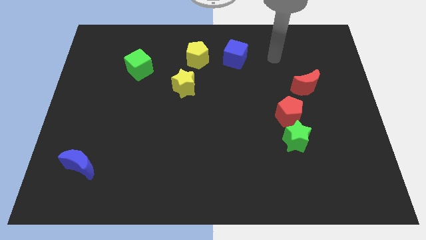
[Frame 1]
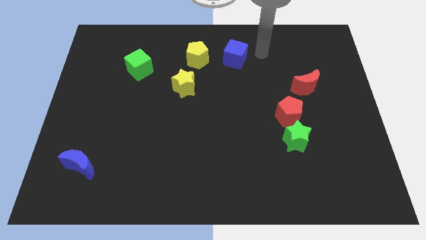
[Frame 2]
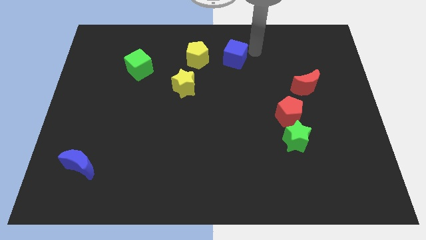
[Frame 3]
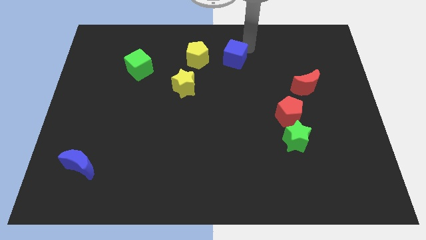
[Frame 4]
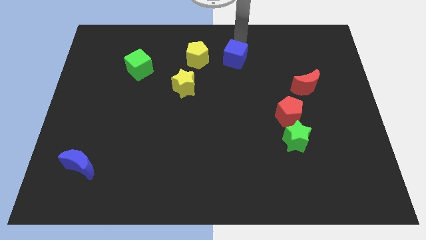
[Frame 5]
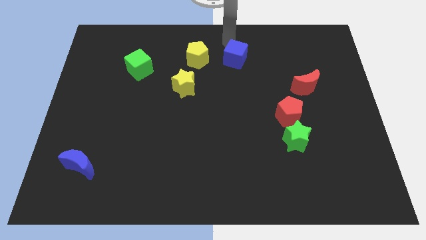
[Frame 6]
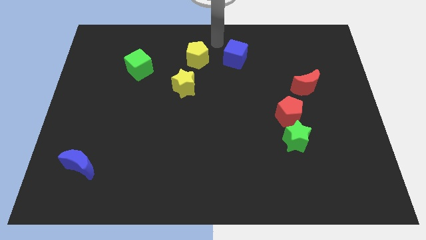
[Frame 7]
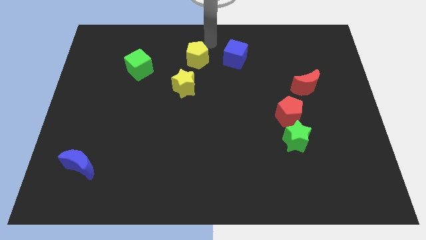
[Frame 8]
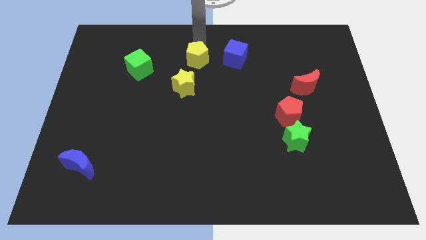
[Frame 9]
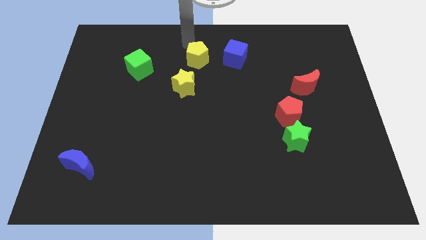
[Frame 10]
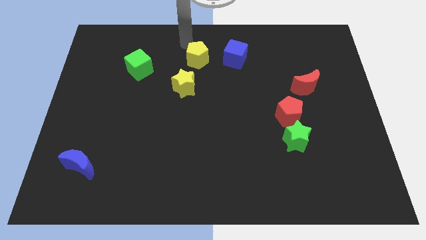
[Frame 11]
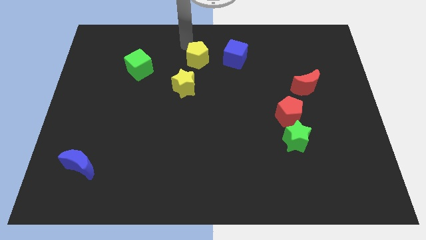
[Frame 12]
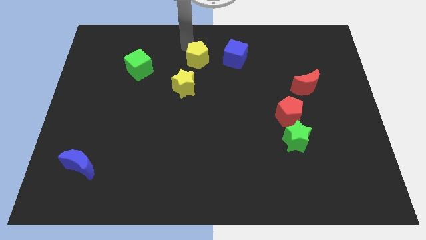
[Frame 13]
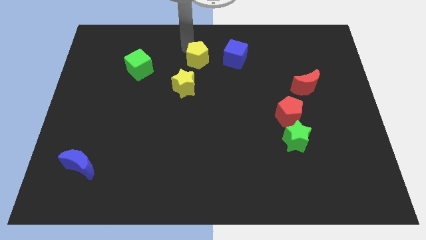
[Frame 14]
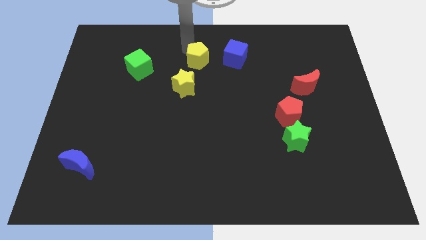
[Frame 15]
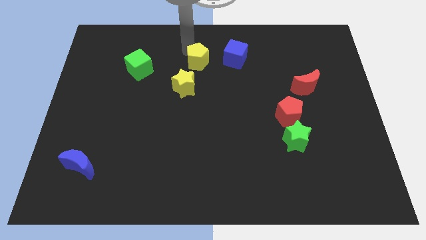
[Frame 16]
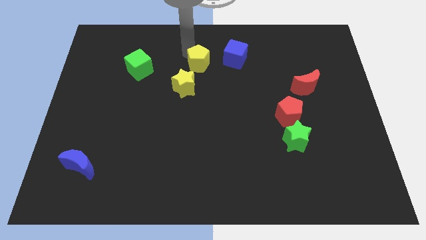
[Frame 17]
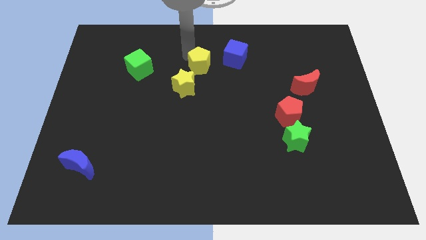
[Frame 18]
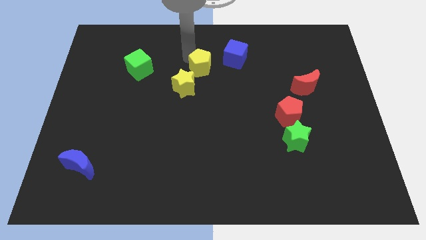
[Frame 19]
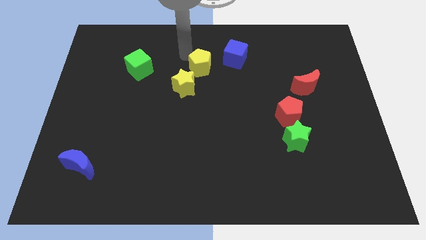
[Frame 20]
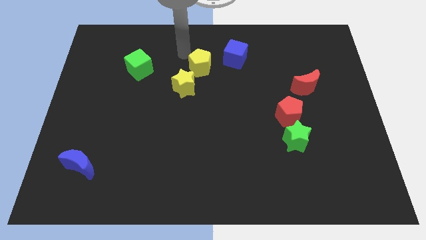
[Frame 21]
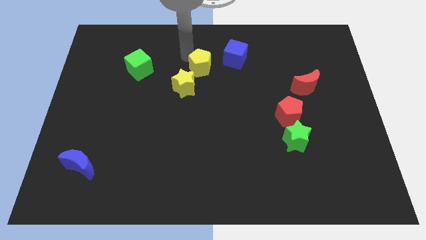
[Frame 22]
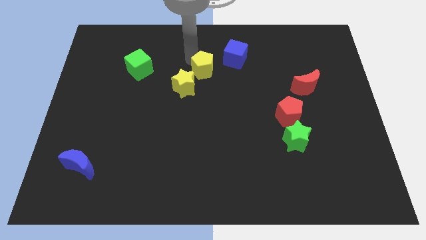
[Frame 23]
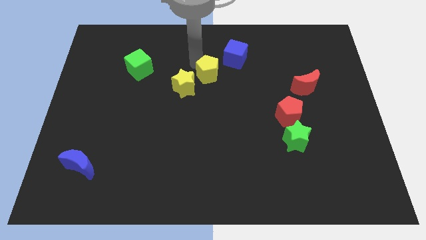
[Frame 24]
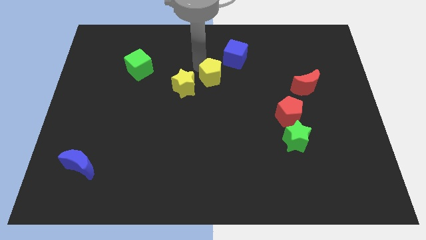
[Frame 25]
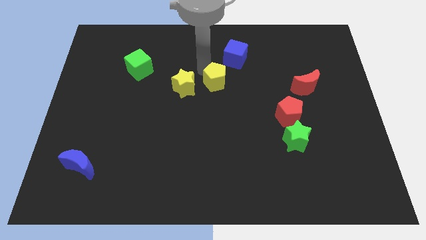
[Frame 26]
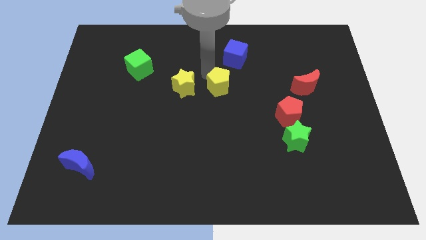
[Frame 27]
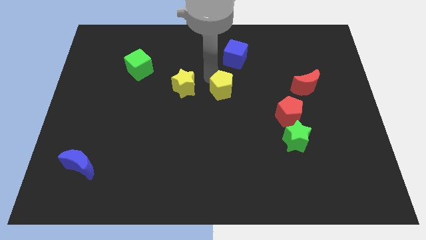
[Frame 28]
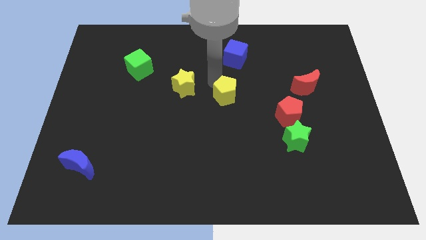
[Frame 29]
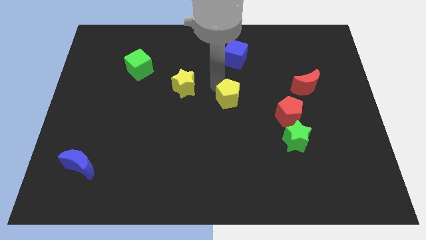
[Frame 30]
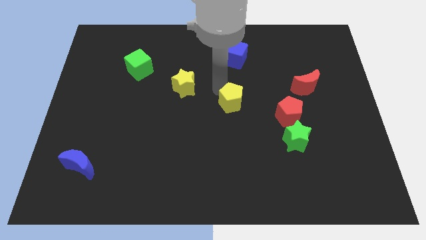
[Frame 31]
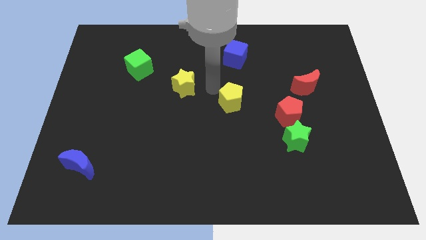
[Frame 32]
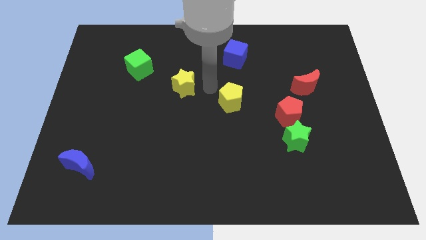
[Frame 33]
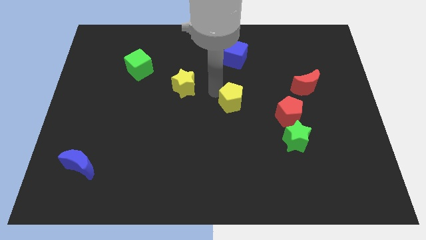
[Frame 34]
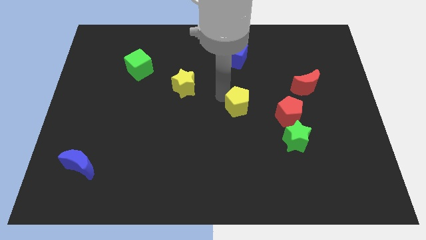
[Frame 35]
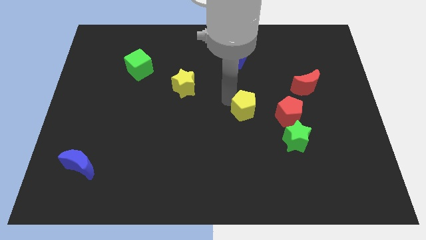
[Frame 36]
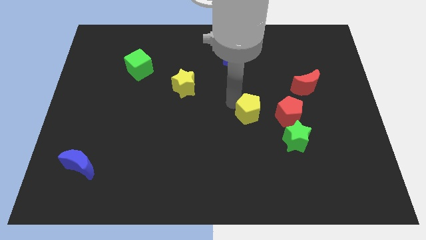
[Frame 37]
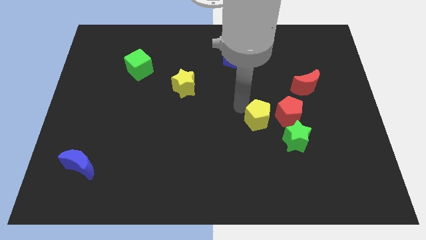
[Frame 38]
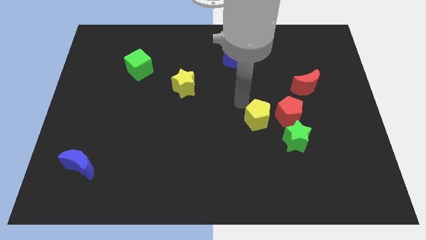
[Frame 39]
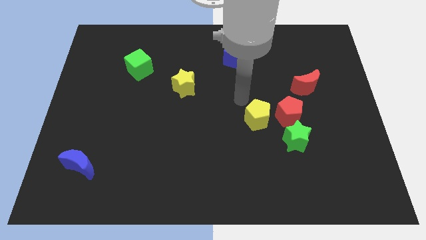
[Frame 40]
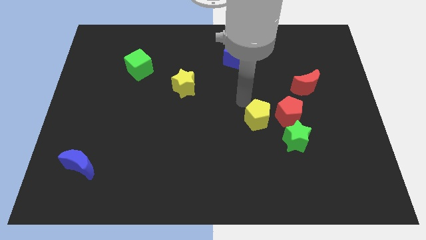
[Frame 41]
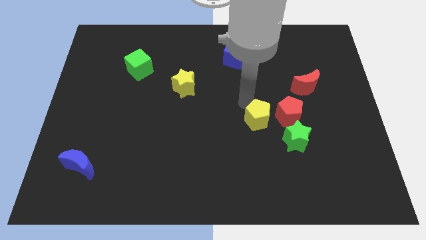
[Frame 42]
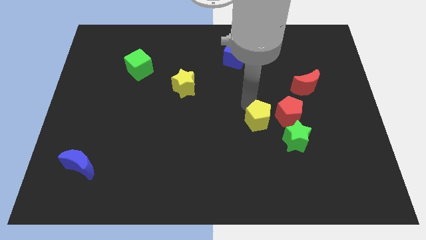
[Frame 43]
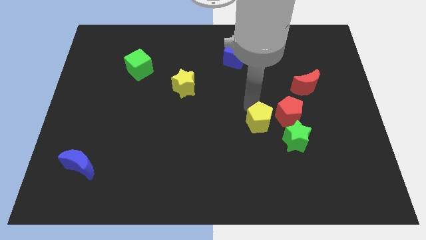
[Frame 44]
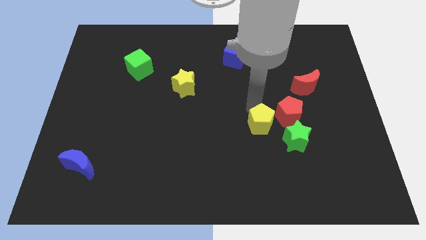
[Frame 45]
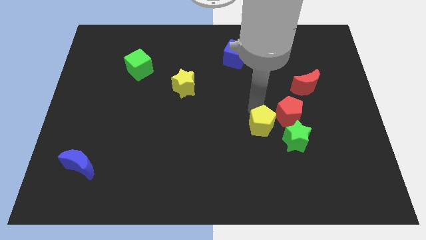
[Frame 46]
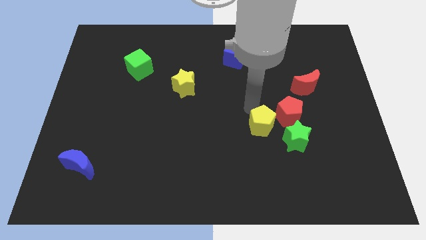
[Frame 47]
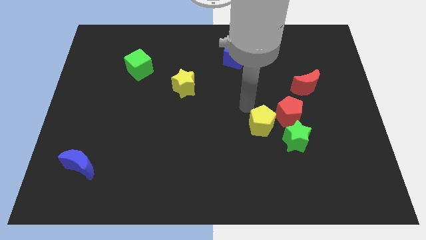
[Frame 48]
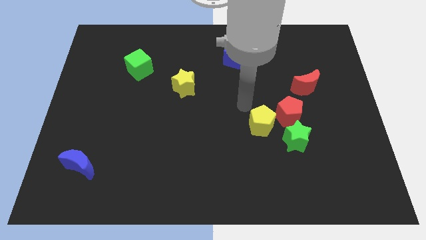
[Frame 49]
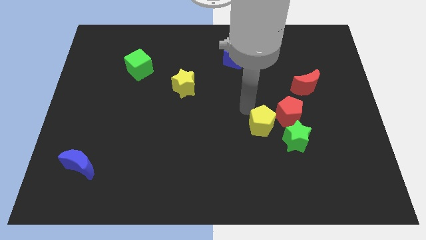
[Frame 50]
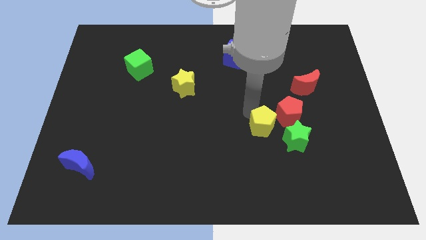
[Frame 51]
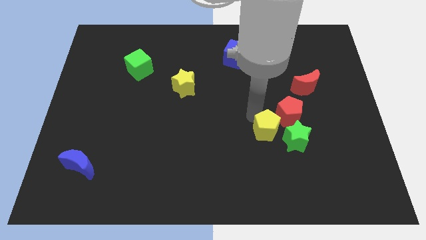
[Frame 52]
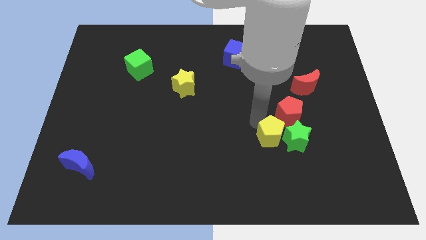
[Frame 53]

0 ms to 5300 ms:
slide the yellow pentagon to the green star
